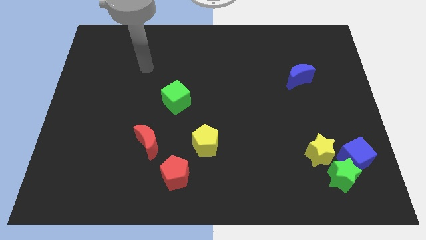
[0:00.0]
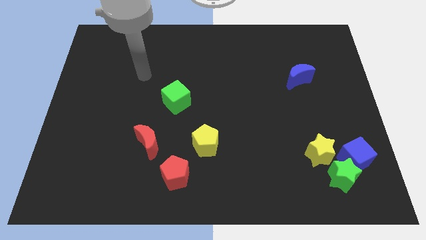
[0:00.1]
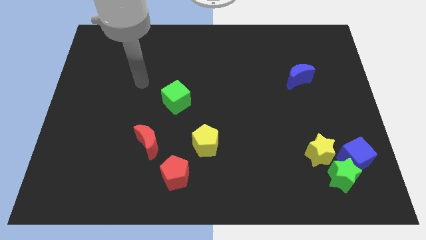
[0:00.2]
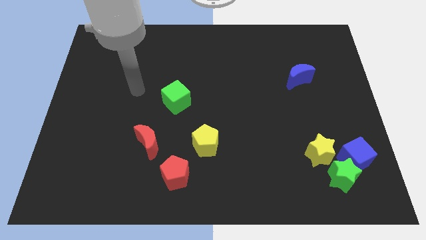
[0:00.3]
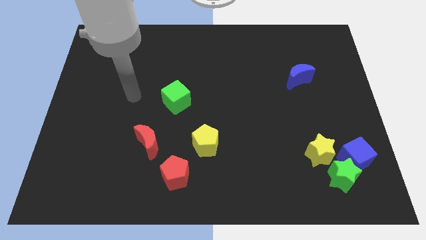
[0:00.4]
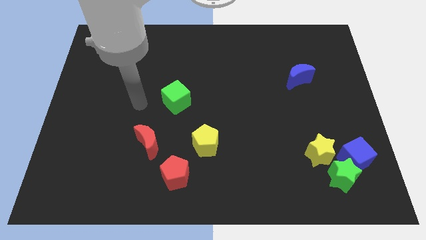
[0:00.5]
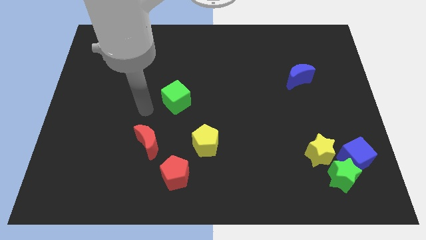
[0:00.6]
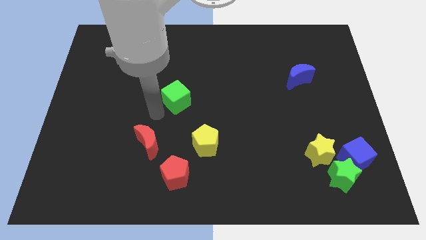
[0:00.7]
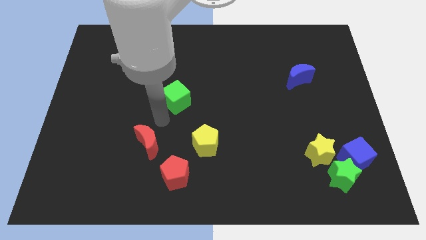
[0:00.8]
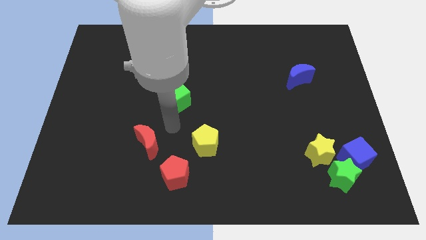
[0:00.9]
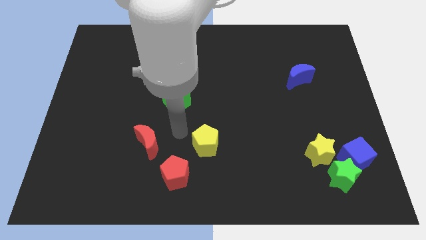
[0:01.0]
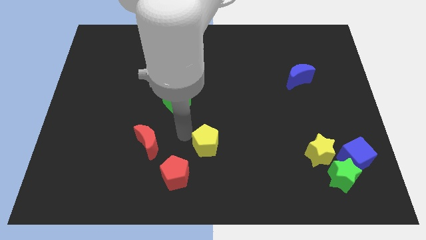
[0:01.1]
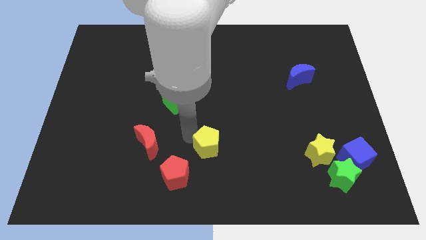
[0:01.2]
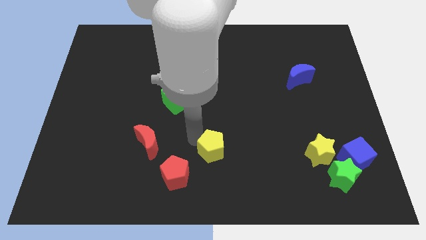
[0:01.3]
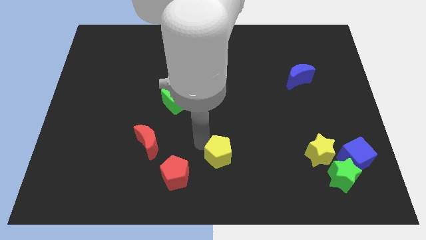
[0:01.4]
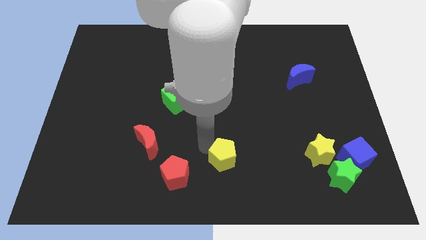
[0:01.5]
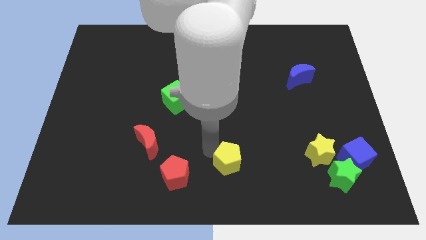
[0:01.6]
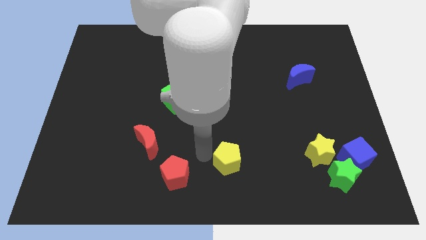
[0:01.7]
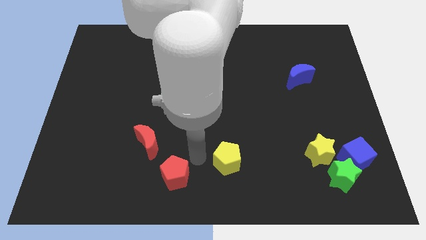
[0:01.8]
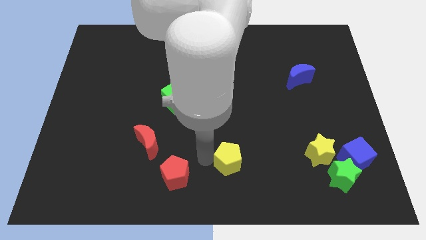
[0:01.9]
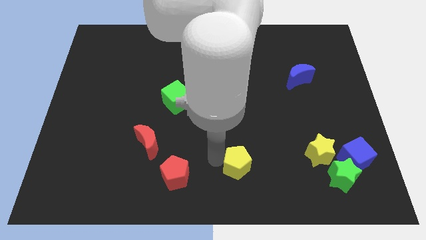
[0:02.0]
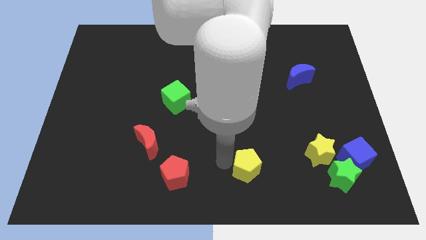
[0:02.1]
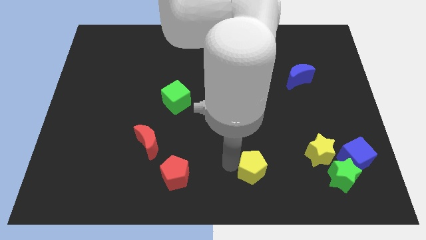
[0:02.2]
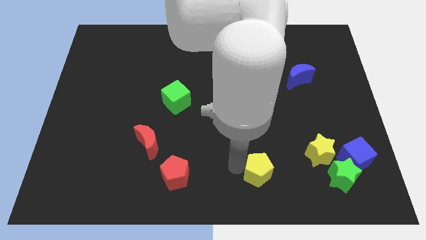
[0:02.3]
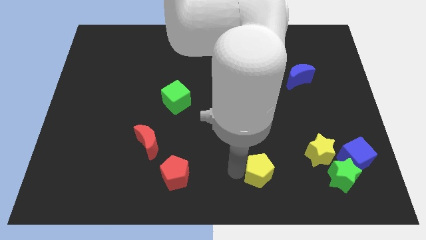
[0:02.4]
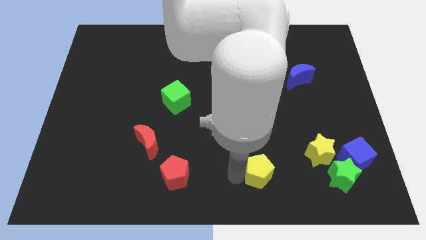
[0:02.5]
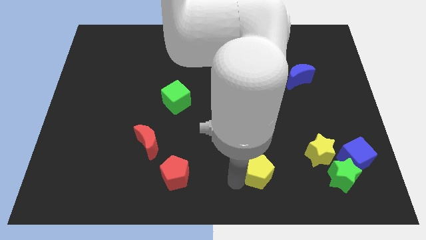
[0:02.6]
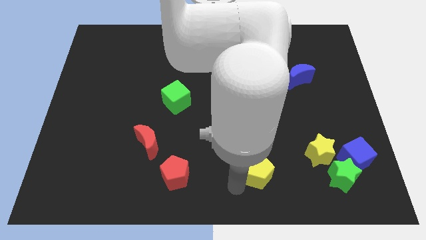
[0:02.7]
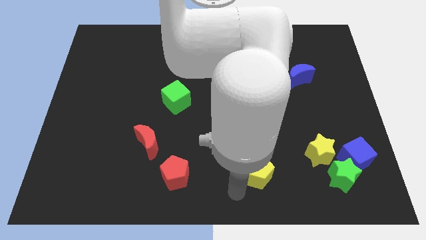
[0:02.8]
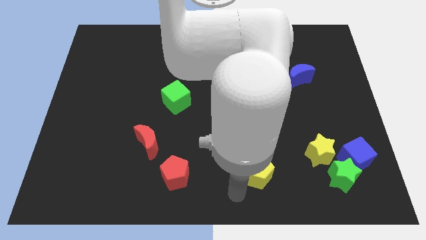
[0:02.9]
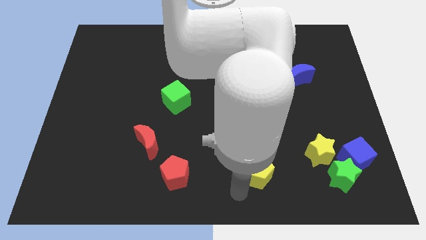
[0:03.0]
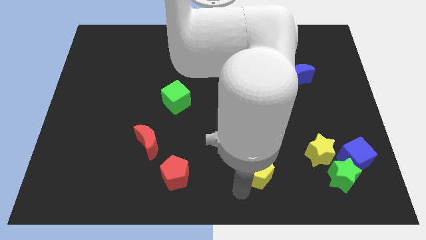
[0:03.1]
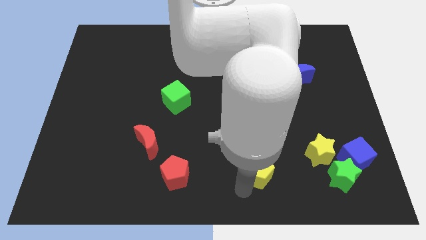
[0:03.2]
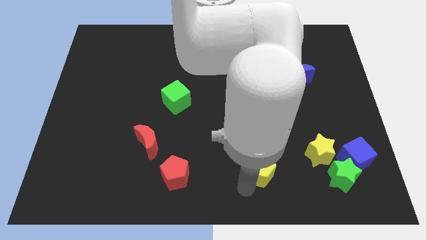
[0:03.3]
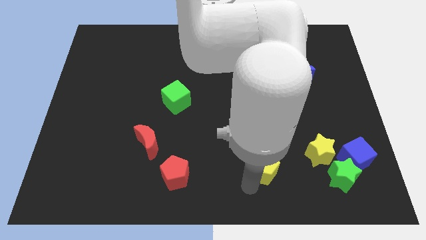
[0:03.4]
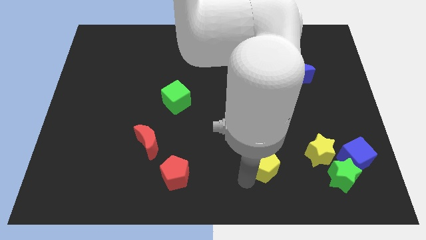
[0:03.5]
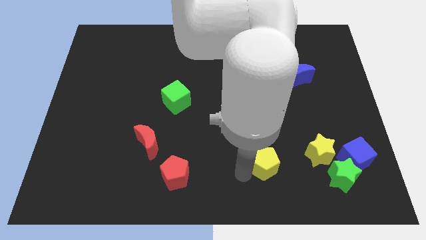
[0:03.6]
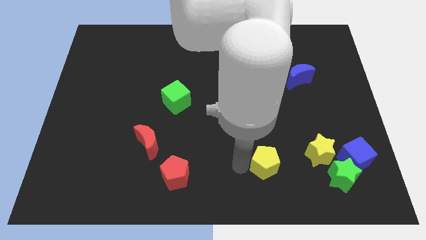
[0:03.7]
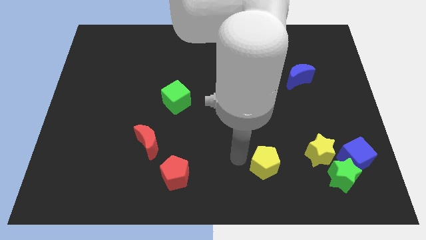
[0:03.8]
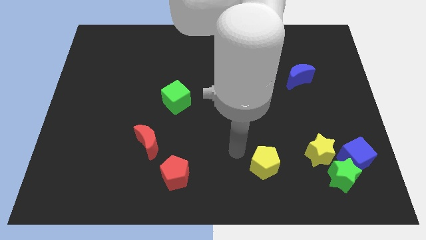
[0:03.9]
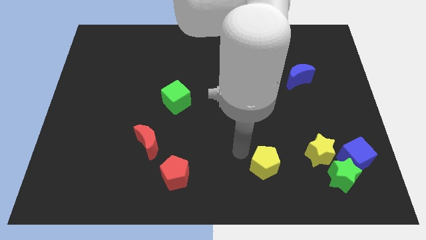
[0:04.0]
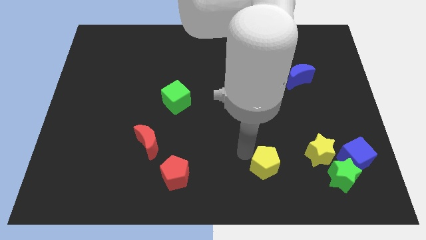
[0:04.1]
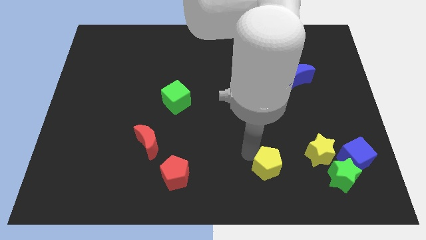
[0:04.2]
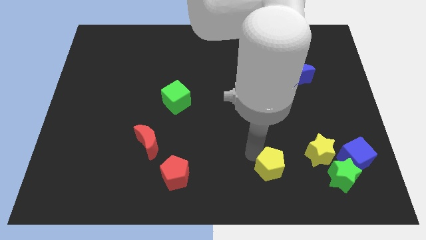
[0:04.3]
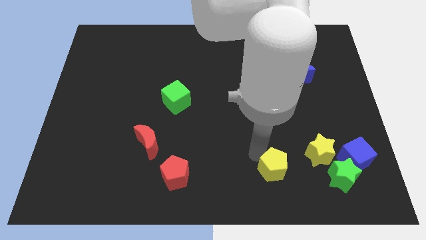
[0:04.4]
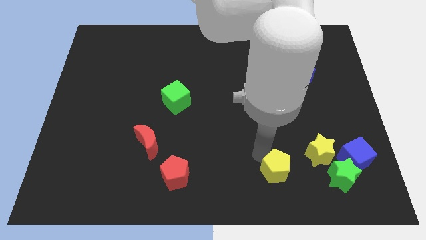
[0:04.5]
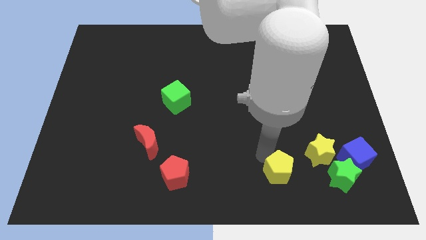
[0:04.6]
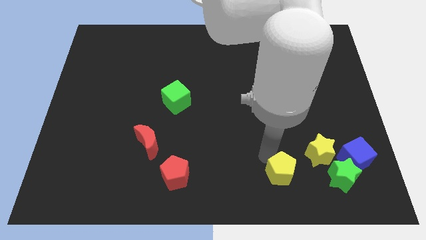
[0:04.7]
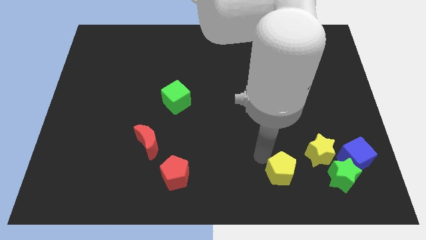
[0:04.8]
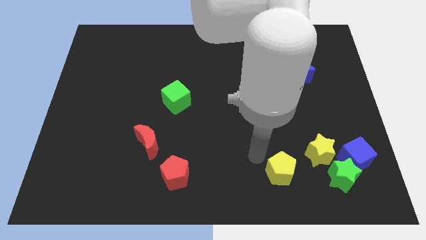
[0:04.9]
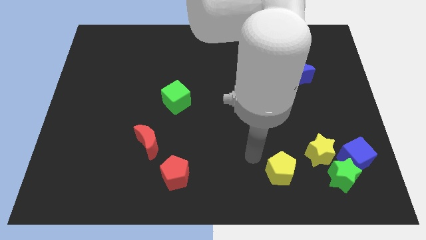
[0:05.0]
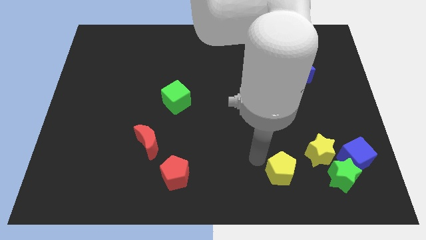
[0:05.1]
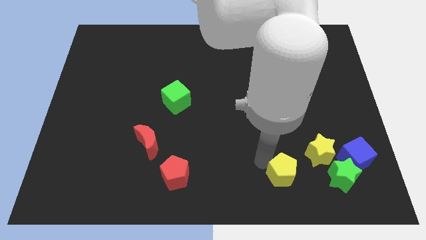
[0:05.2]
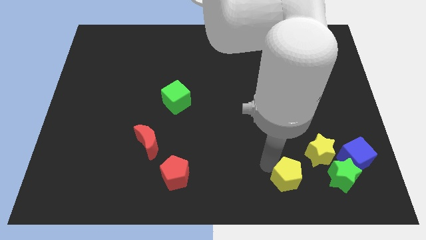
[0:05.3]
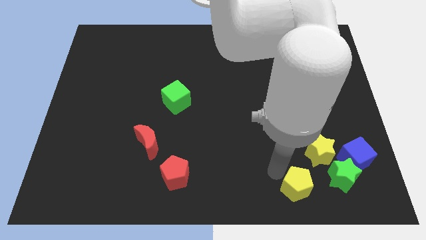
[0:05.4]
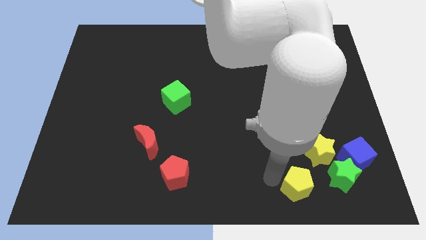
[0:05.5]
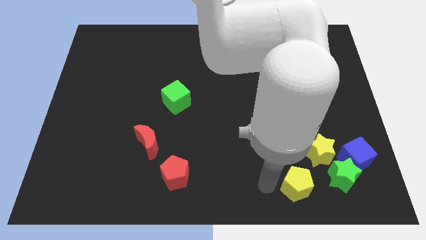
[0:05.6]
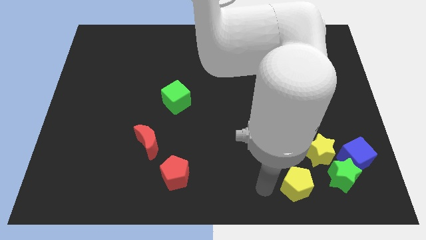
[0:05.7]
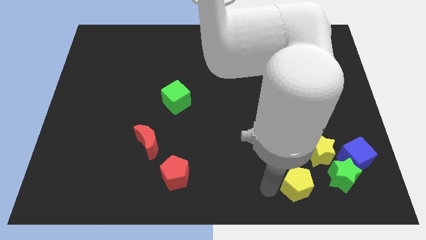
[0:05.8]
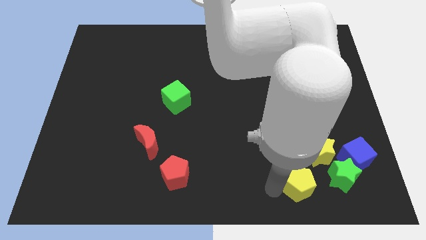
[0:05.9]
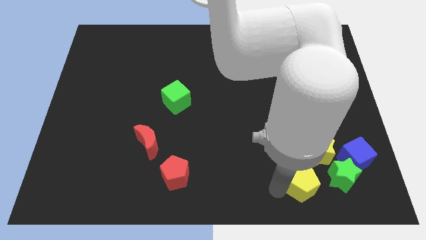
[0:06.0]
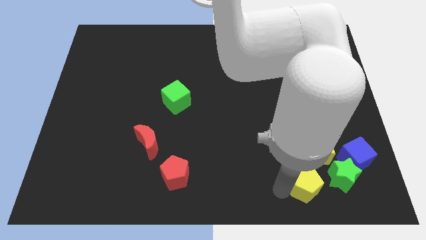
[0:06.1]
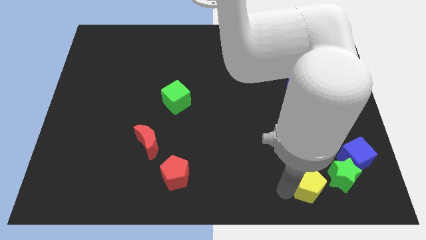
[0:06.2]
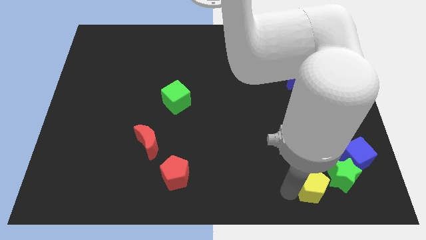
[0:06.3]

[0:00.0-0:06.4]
put the yellow pentagon to the bottom left of the blue cube

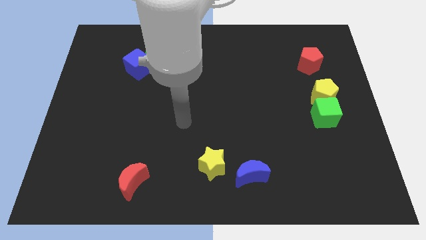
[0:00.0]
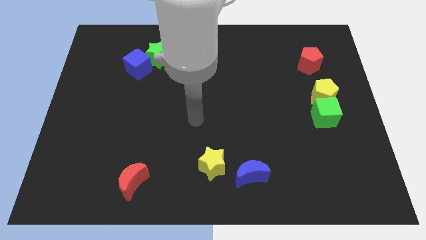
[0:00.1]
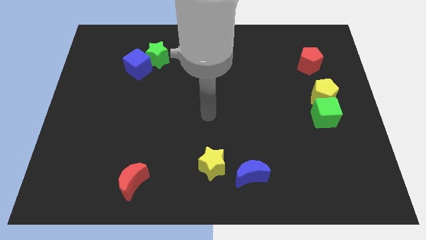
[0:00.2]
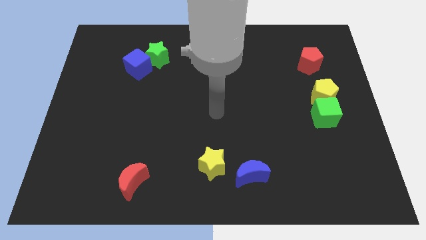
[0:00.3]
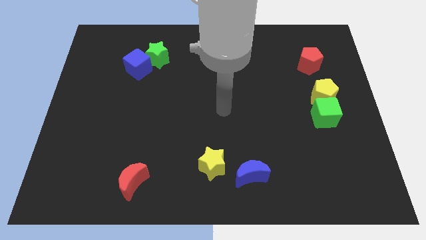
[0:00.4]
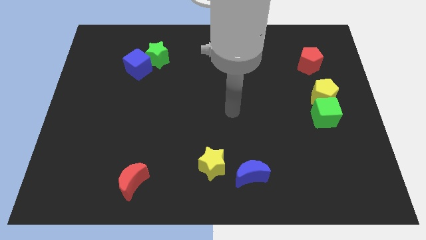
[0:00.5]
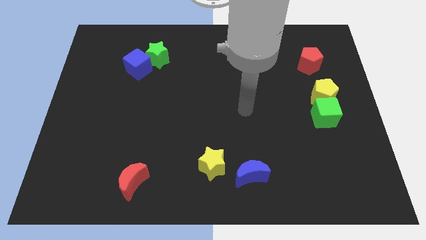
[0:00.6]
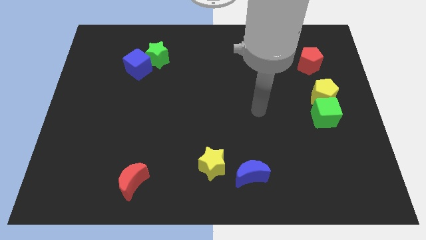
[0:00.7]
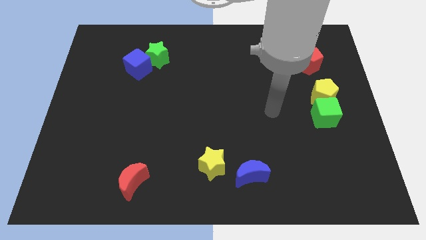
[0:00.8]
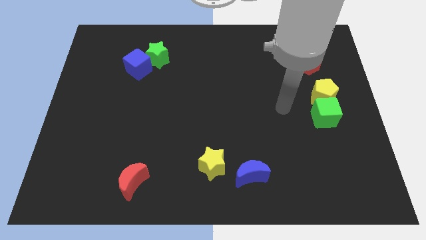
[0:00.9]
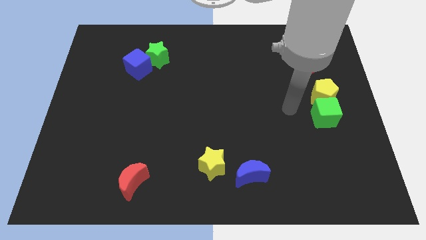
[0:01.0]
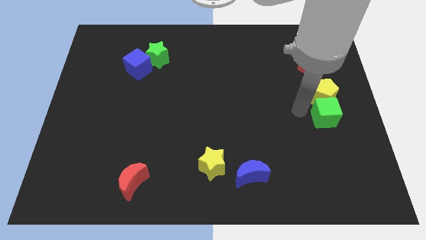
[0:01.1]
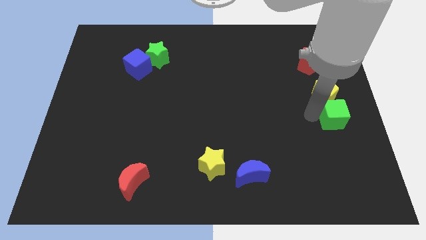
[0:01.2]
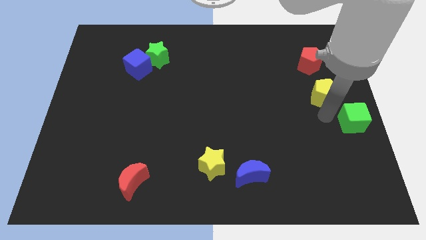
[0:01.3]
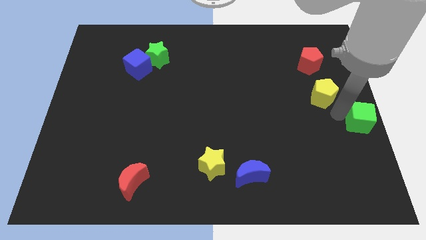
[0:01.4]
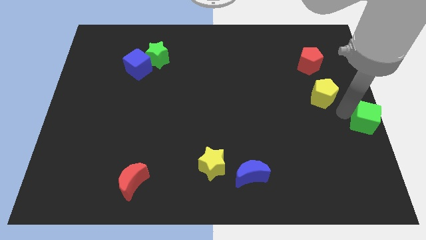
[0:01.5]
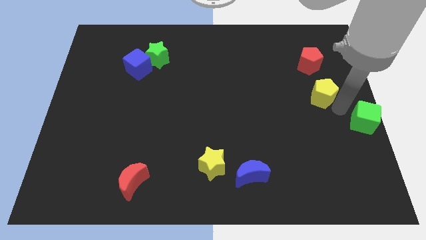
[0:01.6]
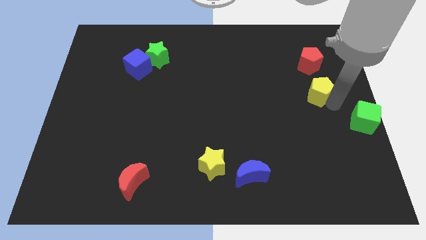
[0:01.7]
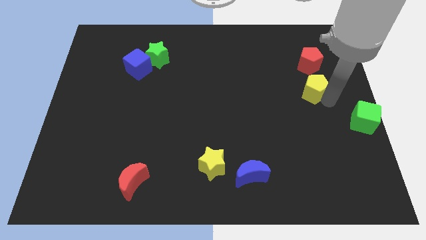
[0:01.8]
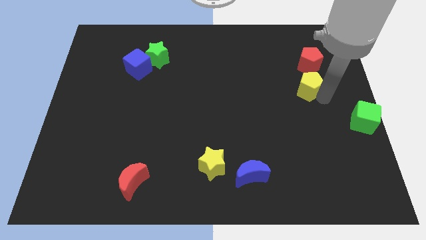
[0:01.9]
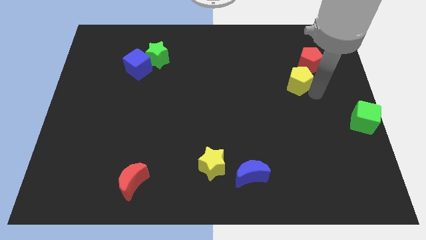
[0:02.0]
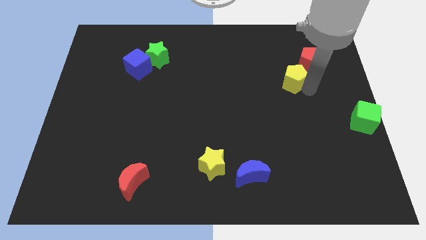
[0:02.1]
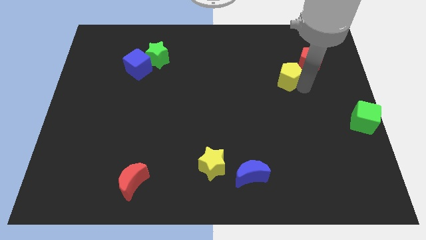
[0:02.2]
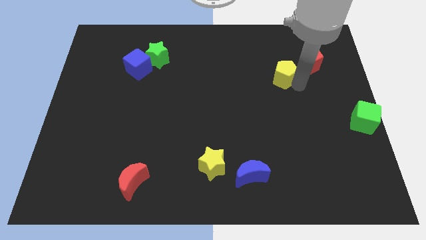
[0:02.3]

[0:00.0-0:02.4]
push the yellow pentagon left of the red pentagon
